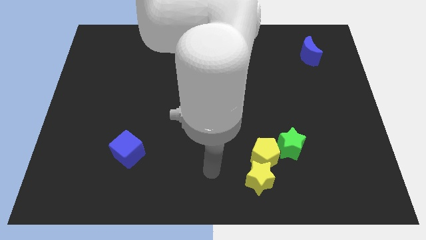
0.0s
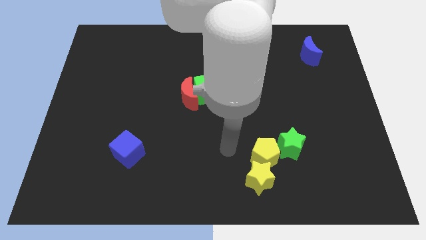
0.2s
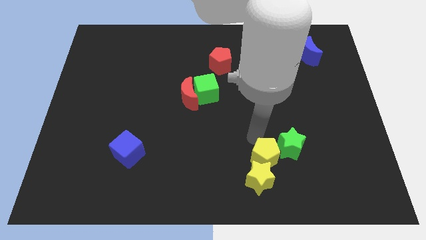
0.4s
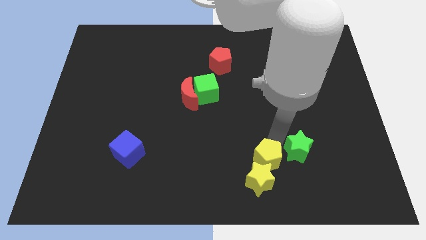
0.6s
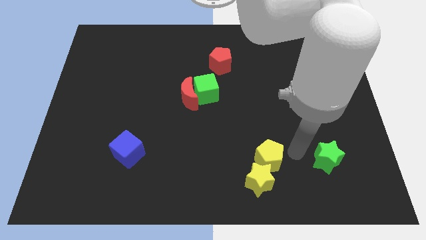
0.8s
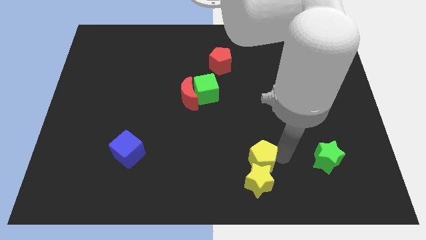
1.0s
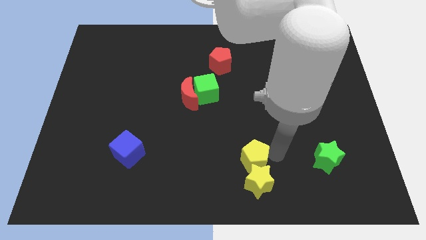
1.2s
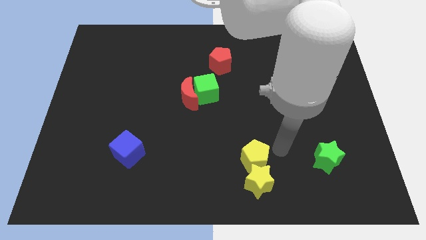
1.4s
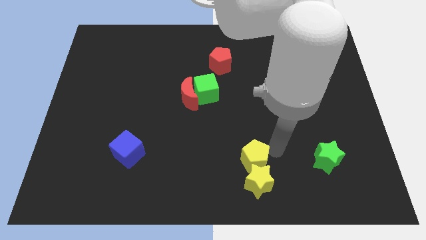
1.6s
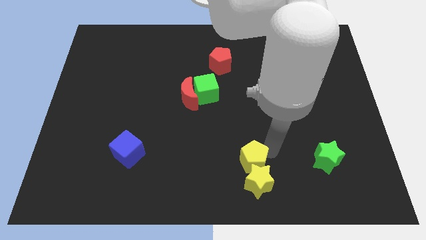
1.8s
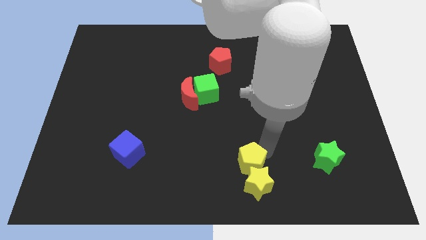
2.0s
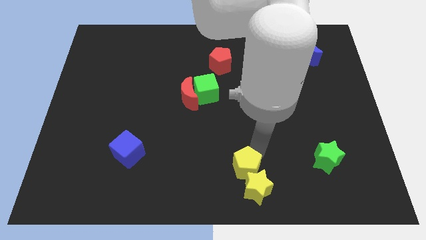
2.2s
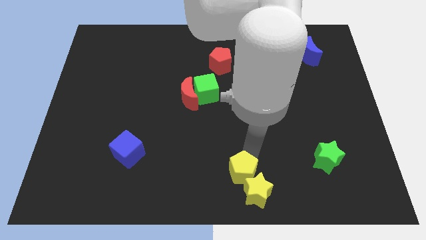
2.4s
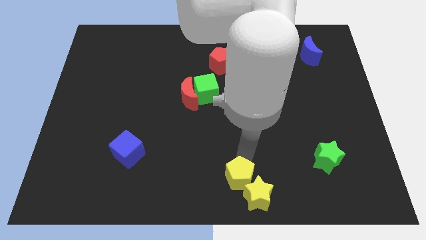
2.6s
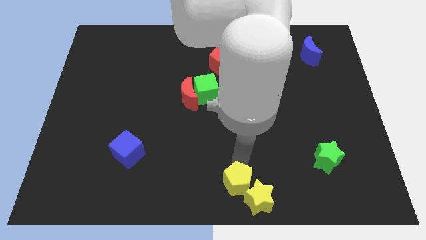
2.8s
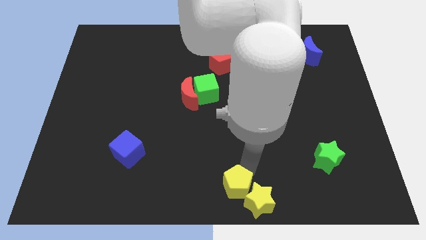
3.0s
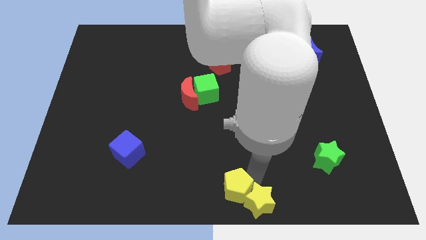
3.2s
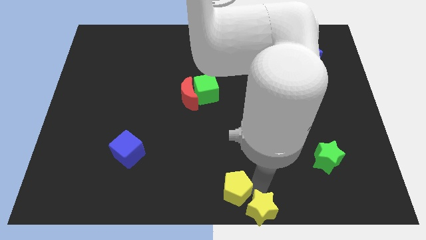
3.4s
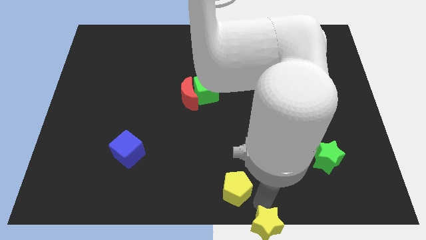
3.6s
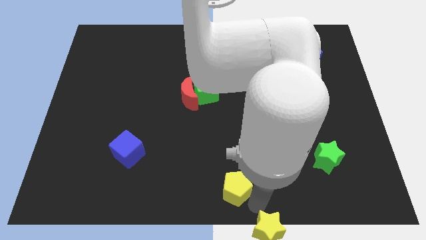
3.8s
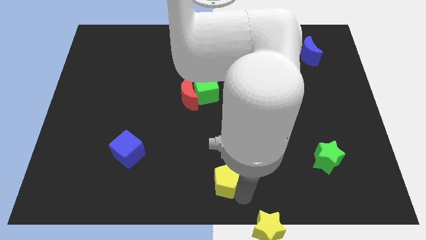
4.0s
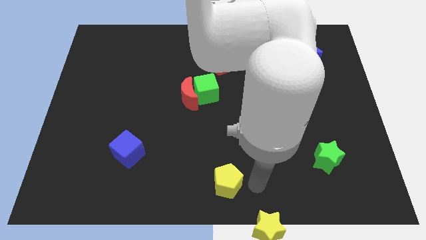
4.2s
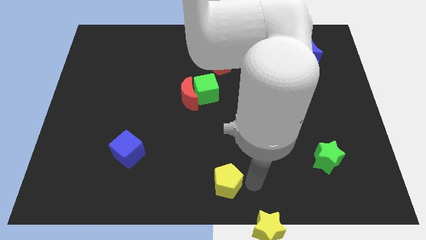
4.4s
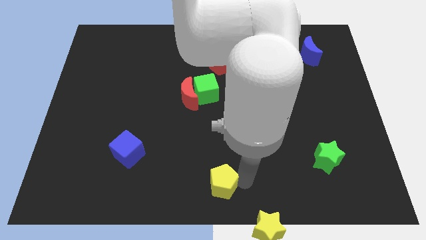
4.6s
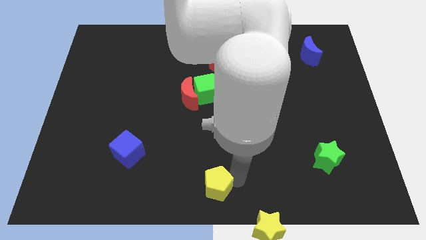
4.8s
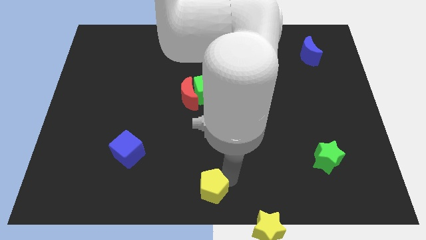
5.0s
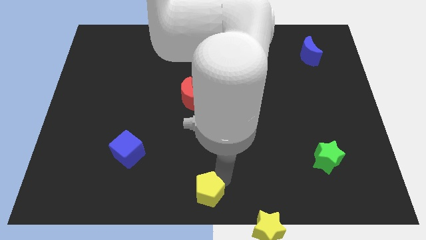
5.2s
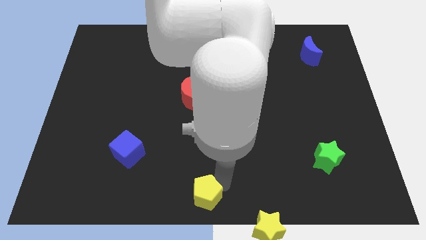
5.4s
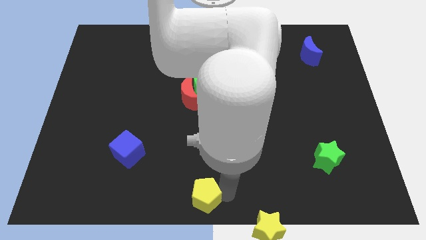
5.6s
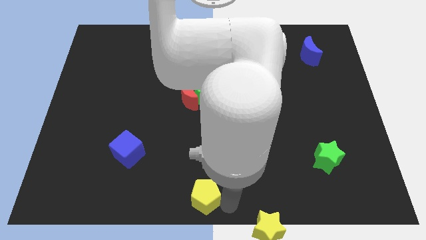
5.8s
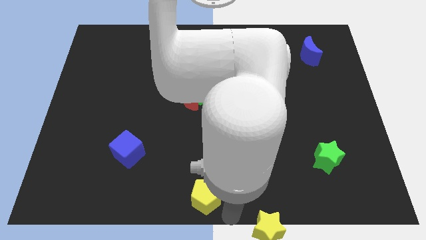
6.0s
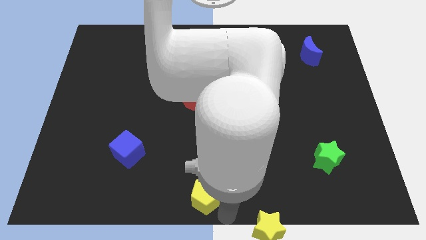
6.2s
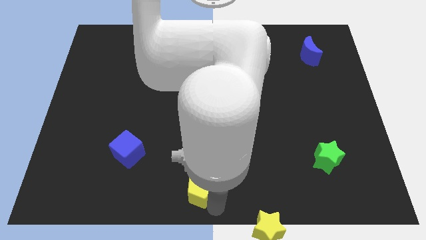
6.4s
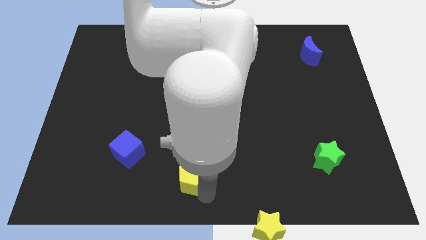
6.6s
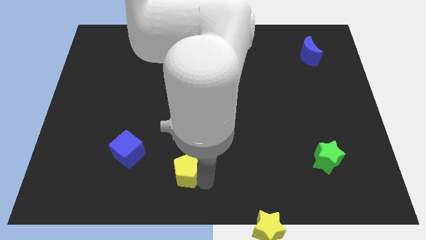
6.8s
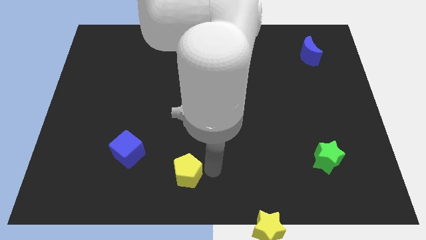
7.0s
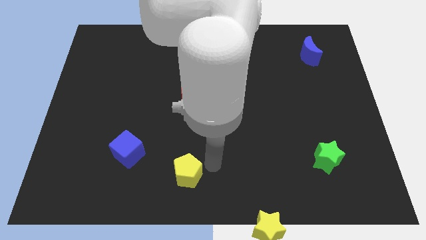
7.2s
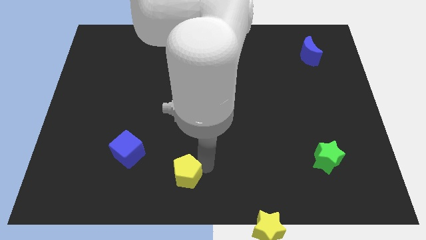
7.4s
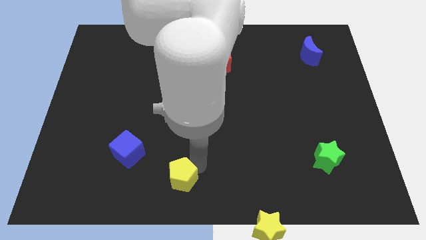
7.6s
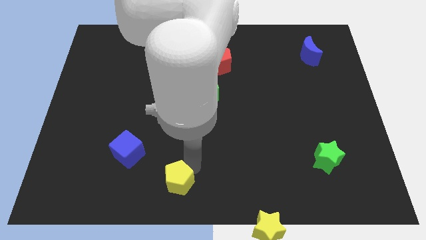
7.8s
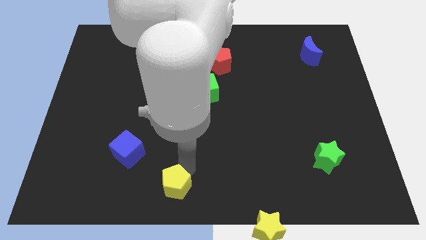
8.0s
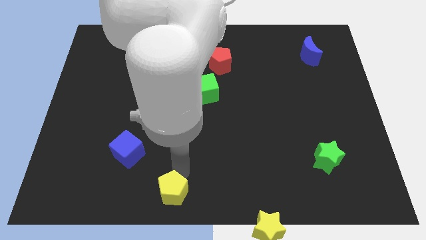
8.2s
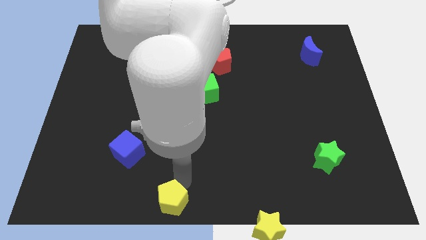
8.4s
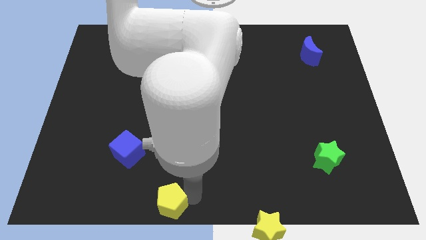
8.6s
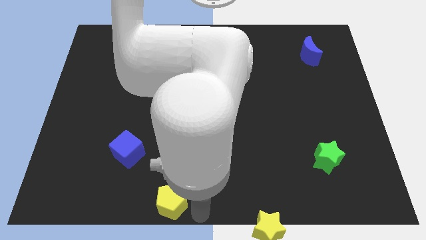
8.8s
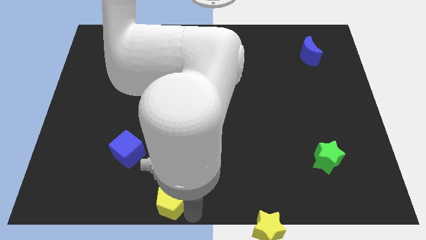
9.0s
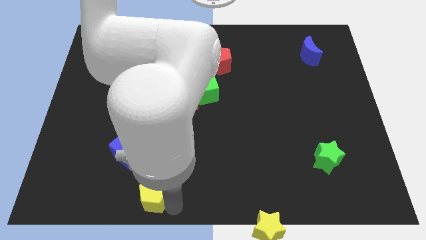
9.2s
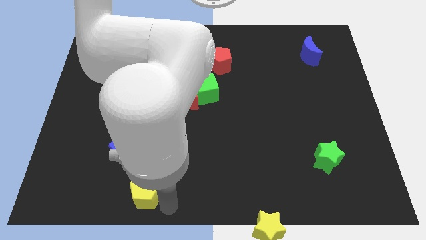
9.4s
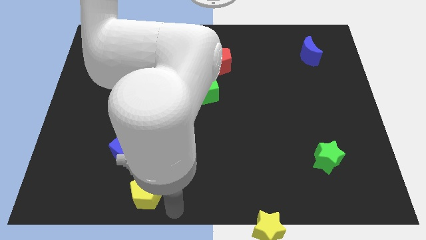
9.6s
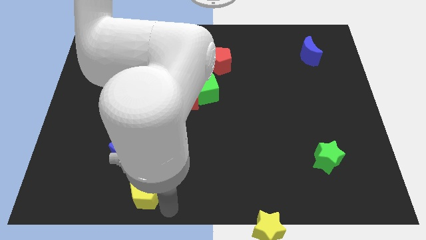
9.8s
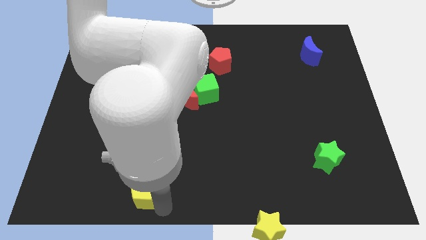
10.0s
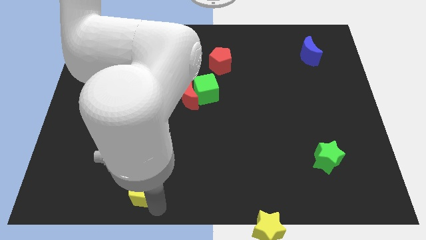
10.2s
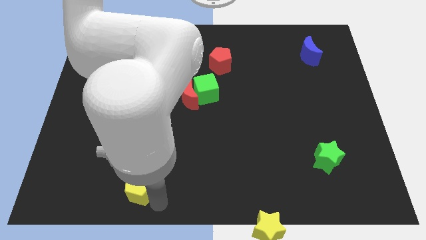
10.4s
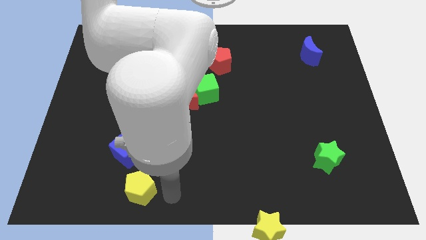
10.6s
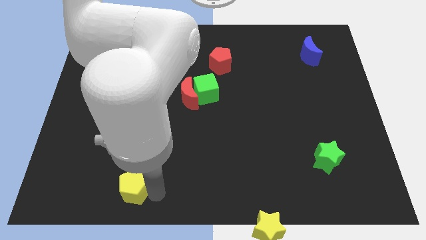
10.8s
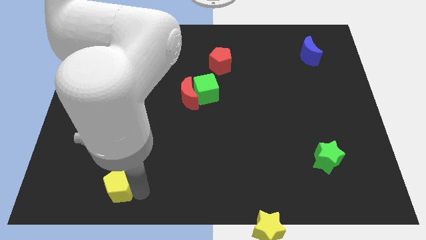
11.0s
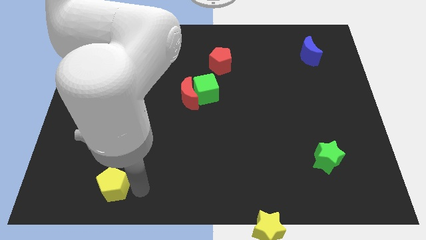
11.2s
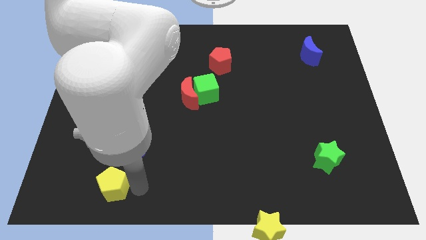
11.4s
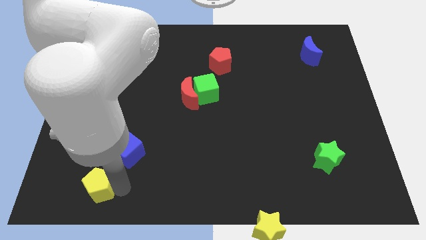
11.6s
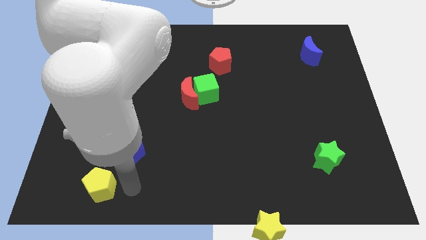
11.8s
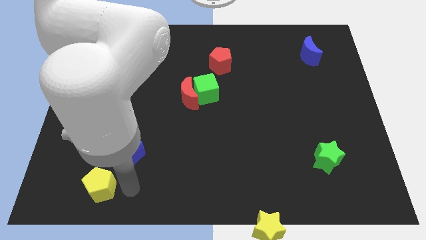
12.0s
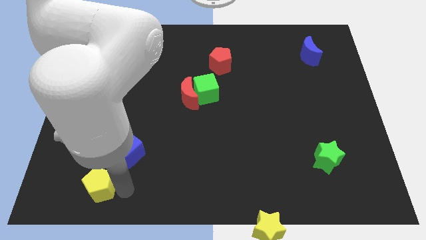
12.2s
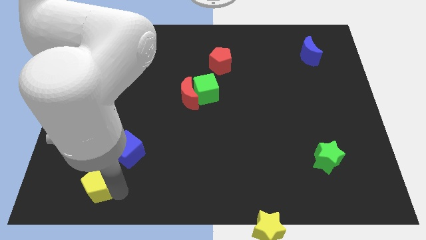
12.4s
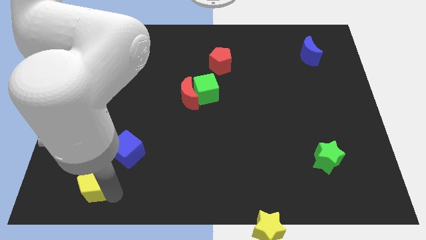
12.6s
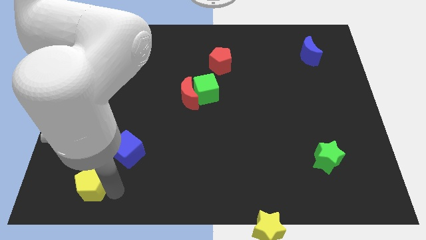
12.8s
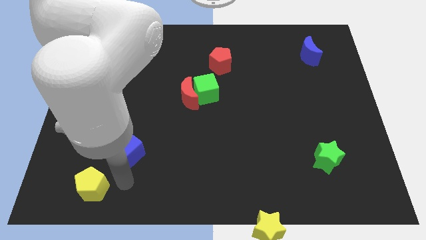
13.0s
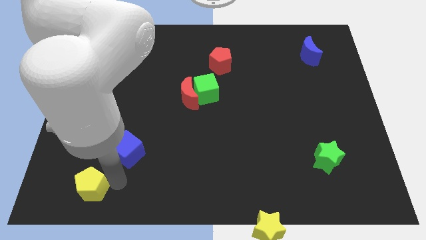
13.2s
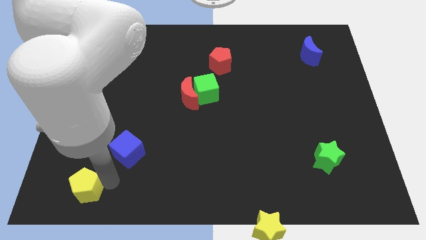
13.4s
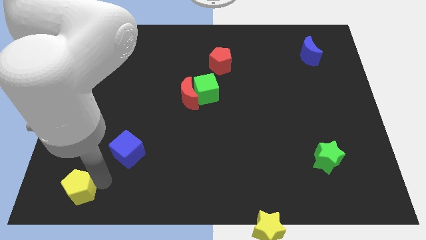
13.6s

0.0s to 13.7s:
push the yellow pentagon to the bottom left

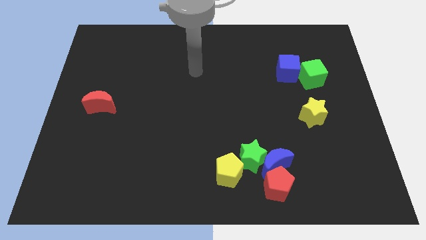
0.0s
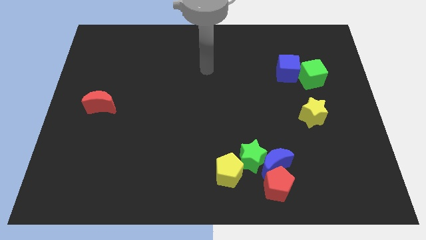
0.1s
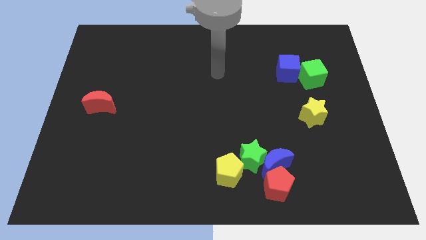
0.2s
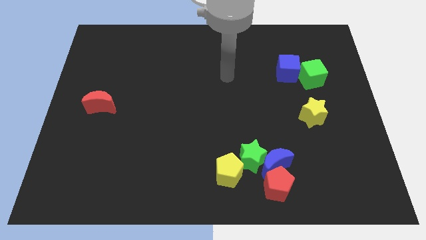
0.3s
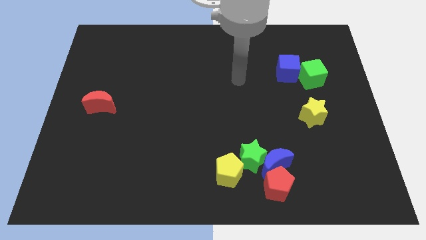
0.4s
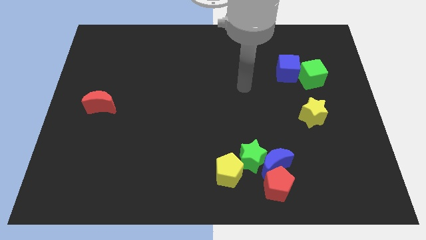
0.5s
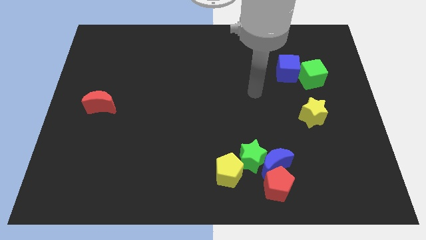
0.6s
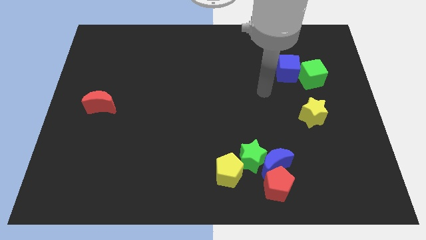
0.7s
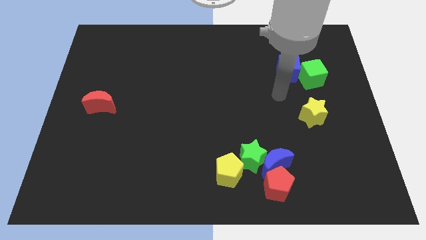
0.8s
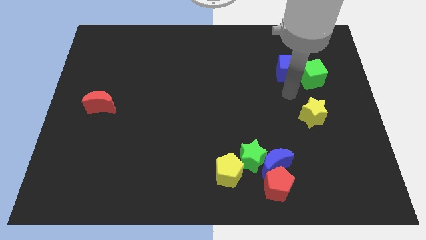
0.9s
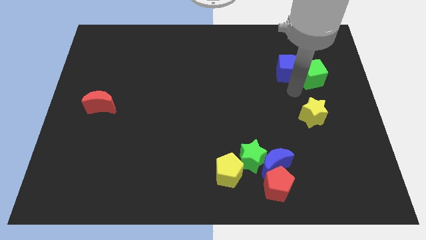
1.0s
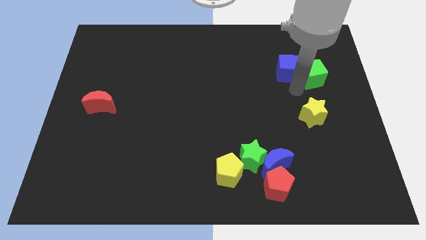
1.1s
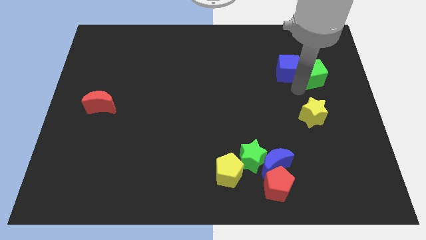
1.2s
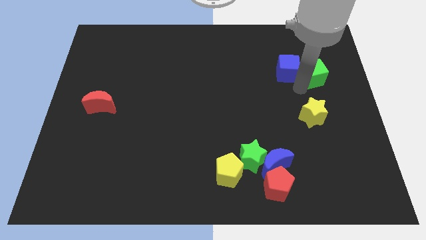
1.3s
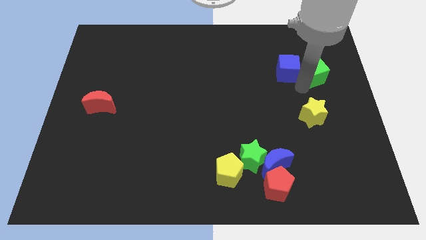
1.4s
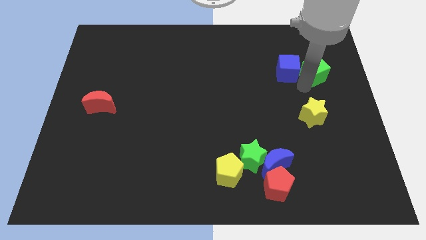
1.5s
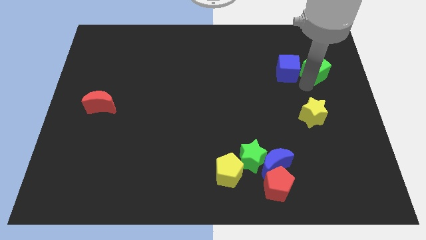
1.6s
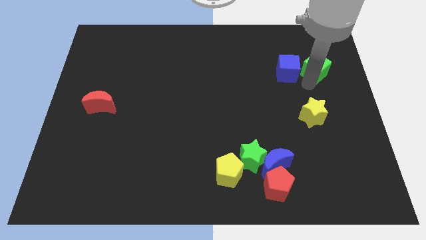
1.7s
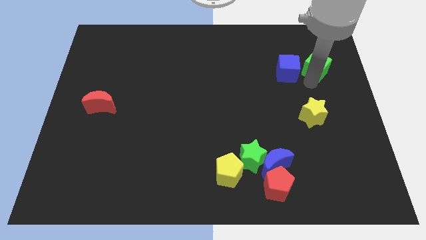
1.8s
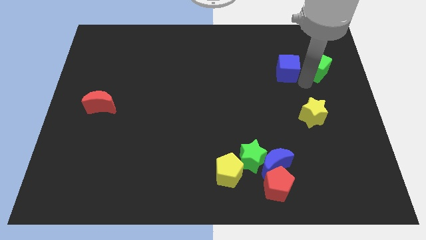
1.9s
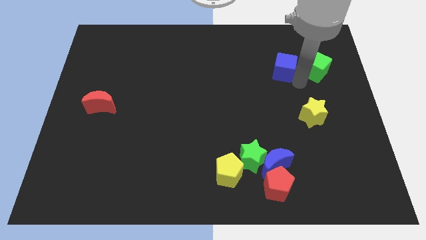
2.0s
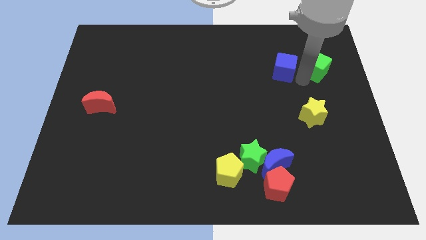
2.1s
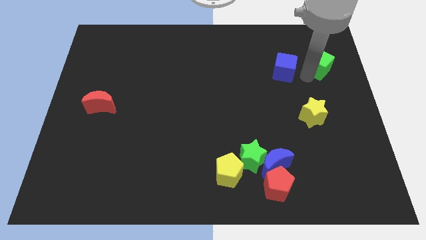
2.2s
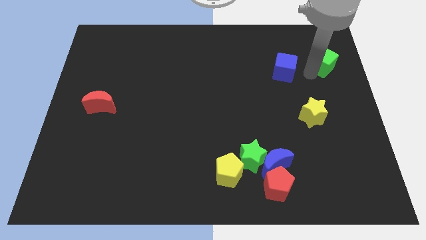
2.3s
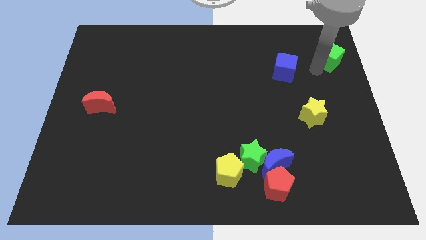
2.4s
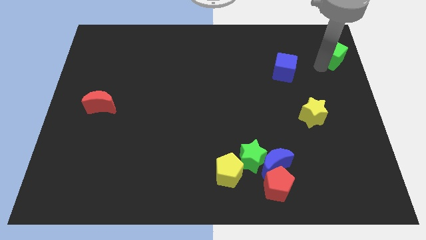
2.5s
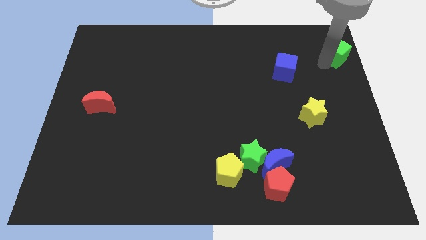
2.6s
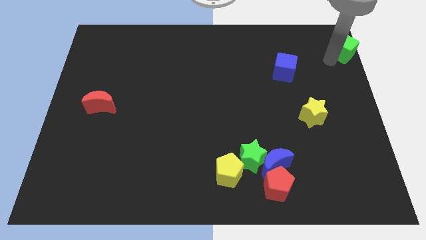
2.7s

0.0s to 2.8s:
slide the green cube to the upper right corner
